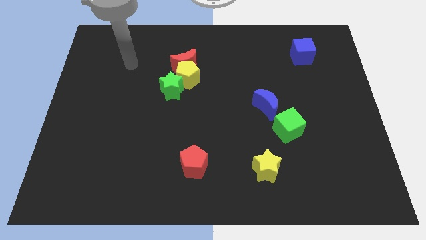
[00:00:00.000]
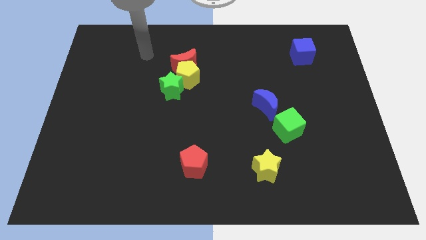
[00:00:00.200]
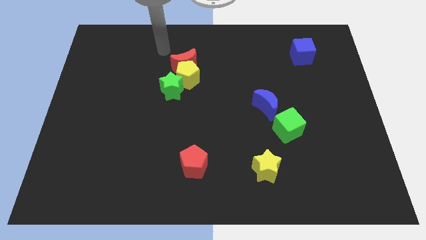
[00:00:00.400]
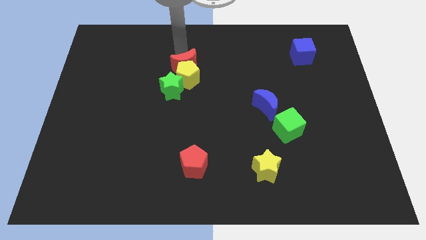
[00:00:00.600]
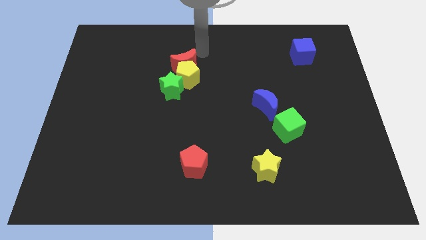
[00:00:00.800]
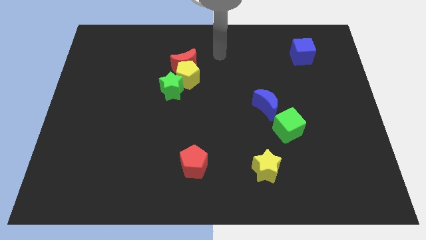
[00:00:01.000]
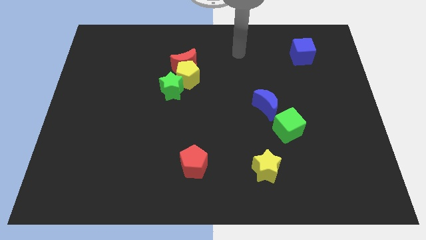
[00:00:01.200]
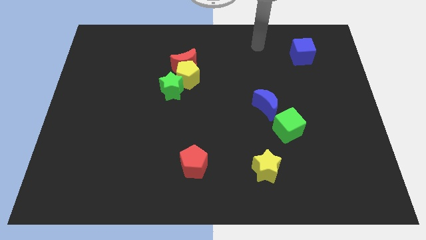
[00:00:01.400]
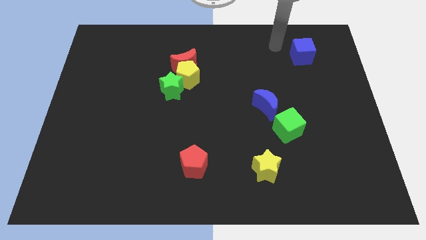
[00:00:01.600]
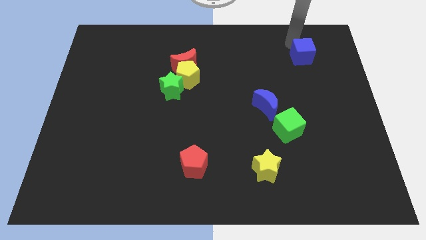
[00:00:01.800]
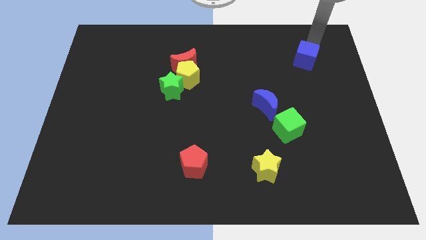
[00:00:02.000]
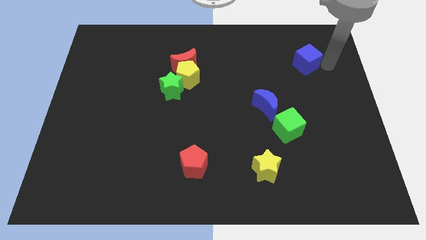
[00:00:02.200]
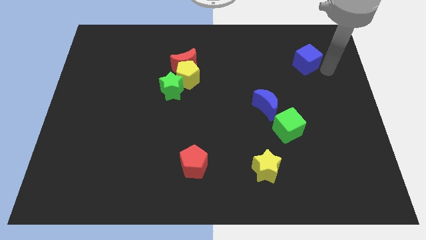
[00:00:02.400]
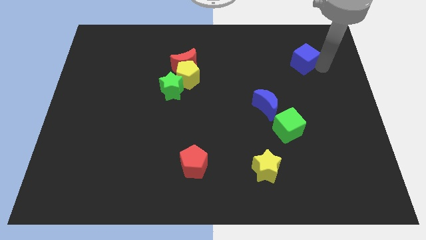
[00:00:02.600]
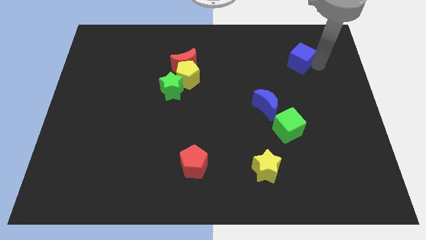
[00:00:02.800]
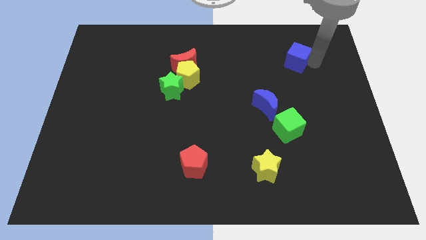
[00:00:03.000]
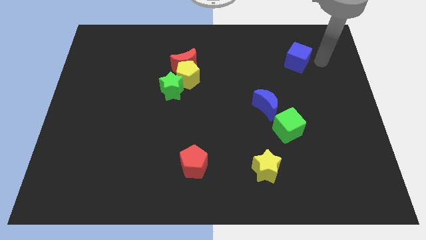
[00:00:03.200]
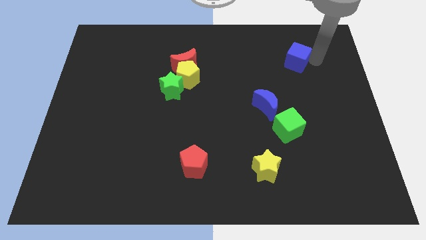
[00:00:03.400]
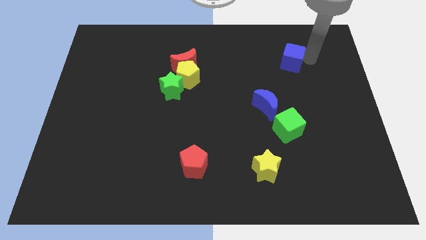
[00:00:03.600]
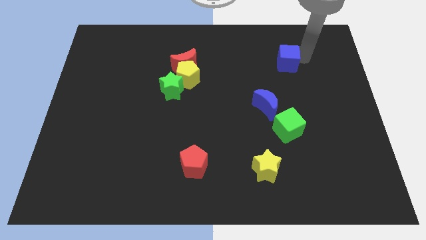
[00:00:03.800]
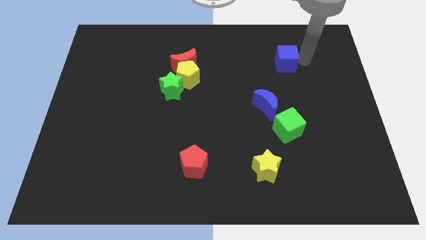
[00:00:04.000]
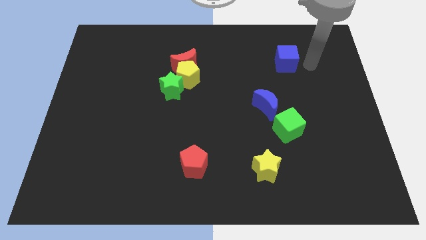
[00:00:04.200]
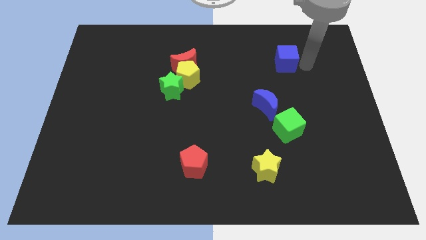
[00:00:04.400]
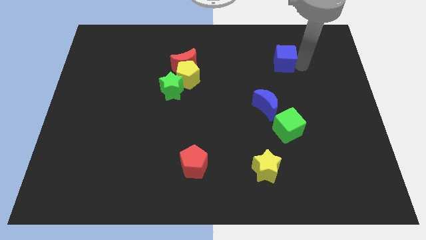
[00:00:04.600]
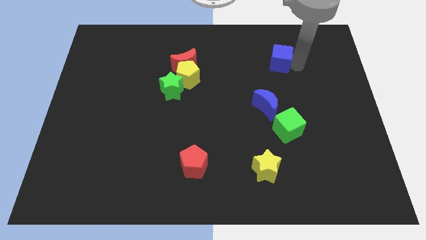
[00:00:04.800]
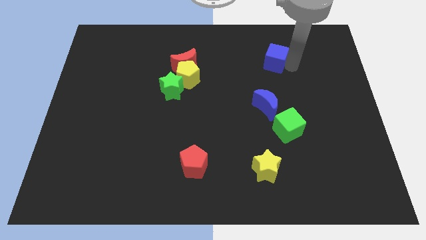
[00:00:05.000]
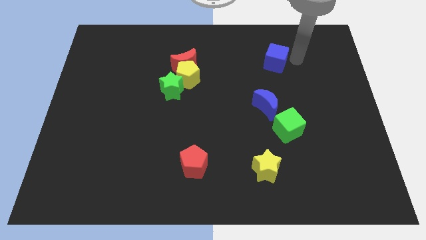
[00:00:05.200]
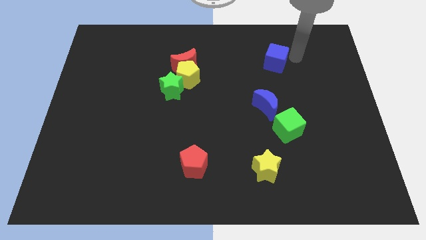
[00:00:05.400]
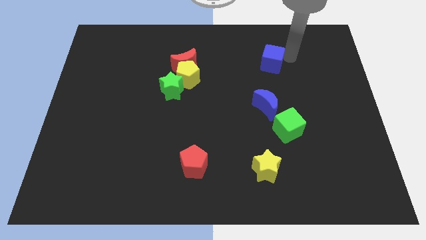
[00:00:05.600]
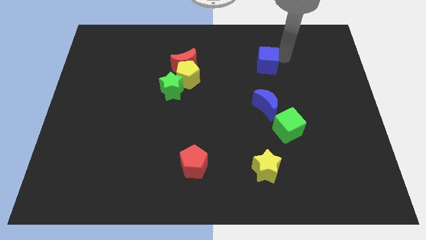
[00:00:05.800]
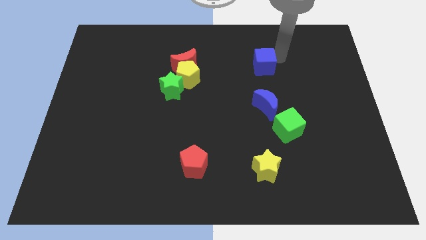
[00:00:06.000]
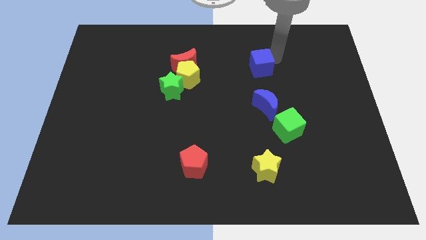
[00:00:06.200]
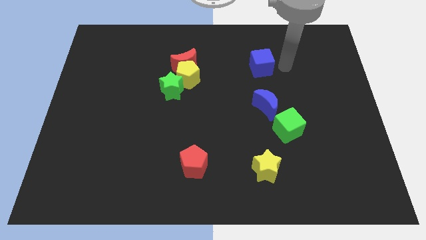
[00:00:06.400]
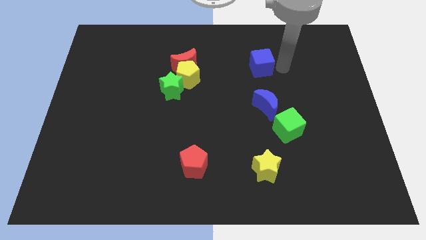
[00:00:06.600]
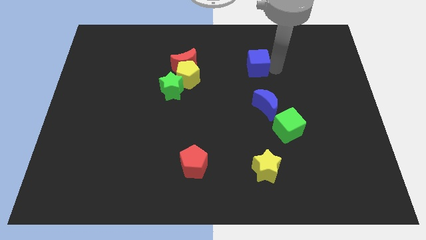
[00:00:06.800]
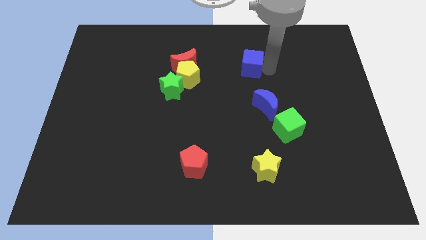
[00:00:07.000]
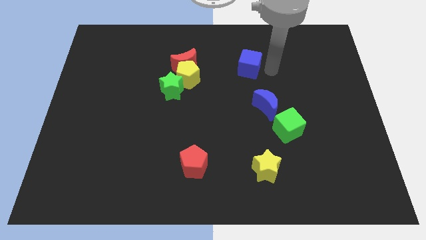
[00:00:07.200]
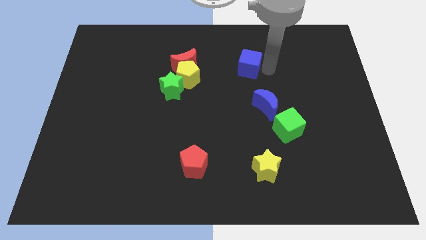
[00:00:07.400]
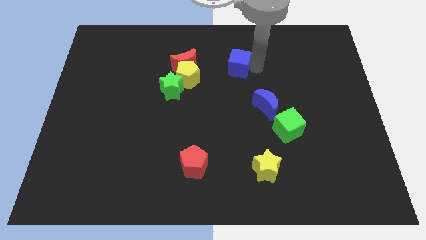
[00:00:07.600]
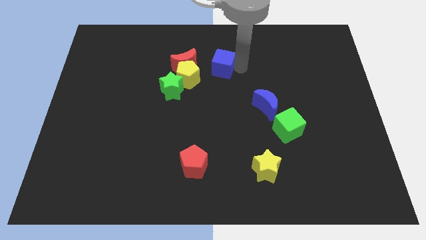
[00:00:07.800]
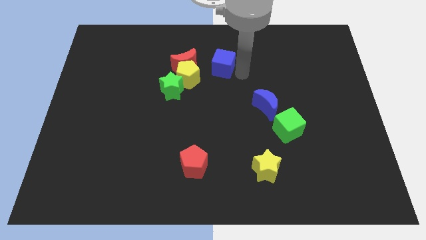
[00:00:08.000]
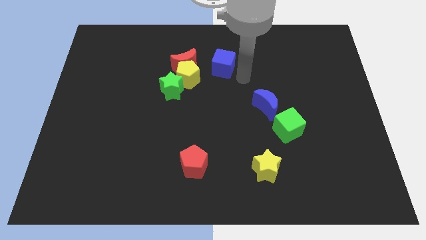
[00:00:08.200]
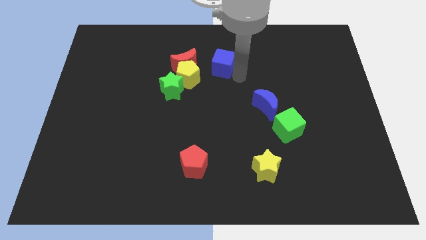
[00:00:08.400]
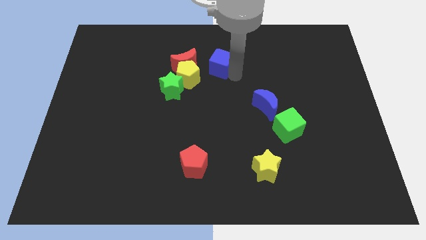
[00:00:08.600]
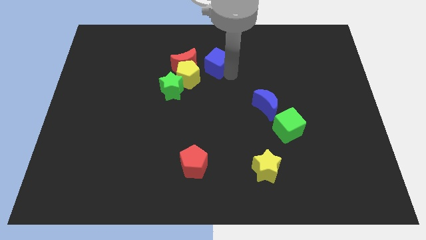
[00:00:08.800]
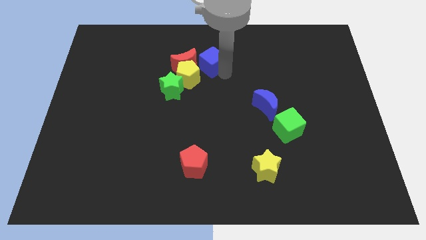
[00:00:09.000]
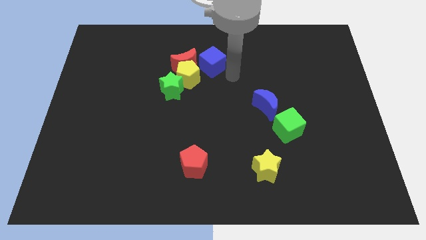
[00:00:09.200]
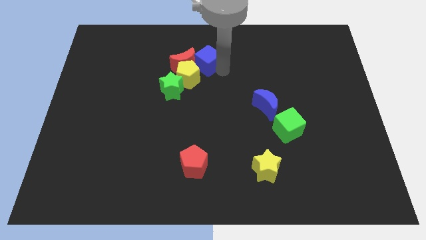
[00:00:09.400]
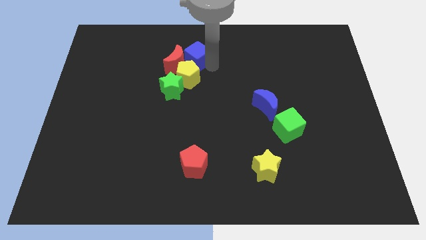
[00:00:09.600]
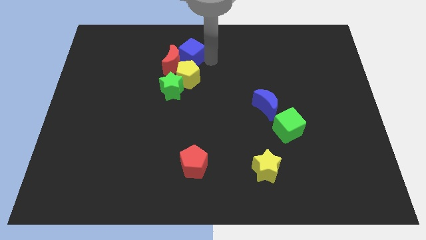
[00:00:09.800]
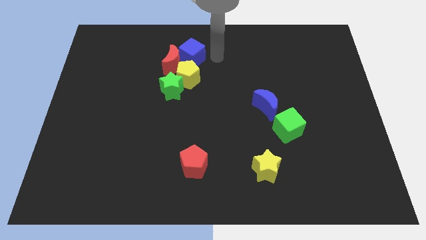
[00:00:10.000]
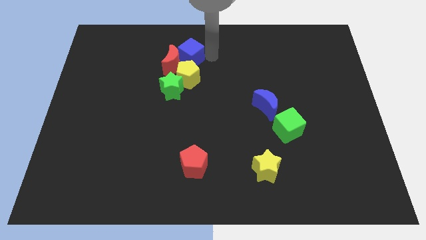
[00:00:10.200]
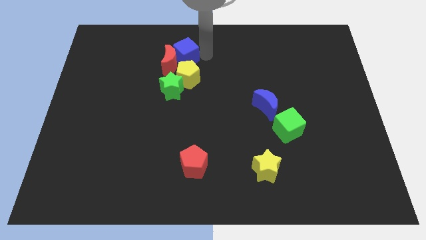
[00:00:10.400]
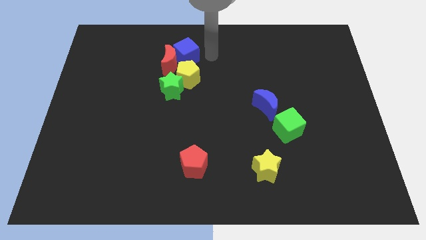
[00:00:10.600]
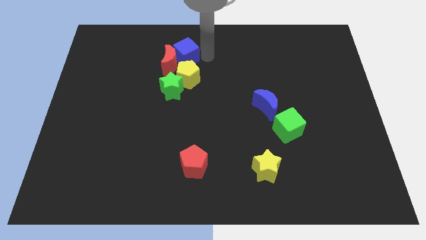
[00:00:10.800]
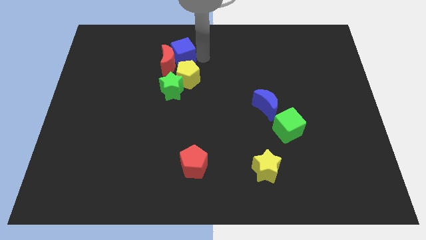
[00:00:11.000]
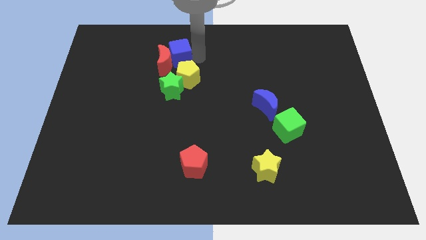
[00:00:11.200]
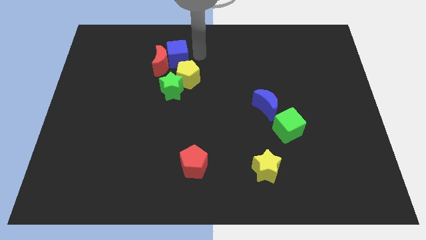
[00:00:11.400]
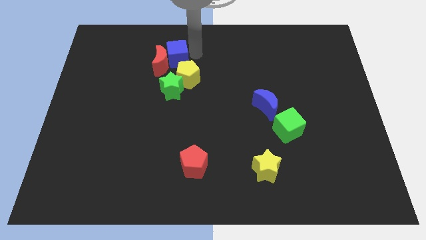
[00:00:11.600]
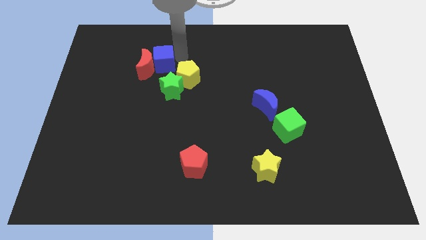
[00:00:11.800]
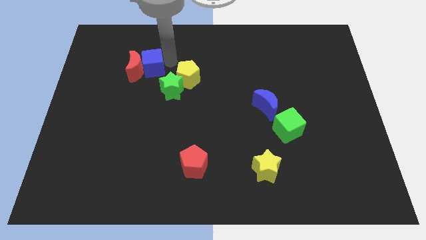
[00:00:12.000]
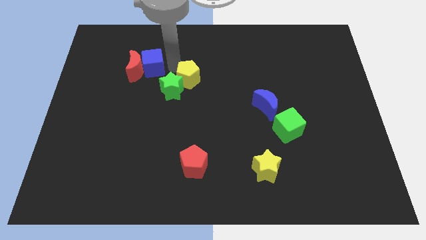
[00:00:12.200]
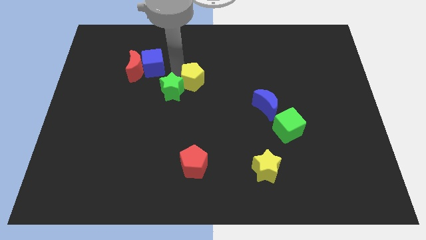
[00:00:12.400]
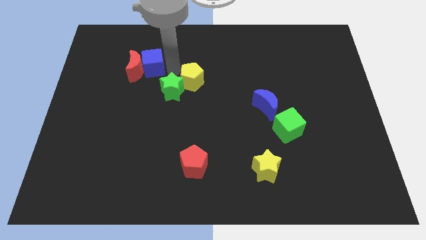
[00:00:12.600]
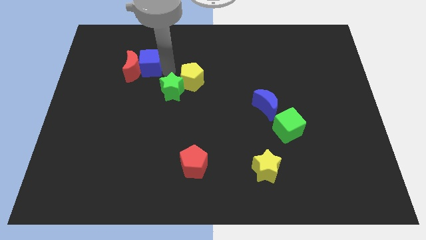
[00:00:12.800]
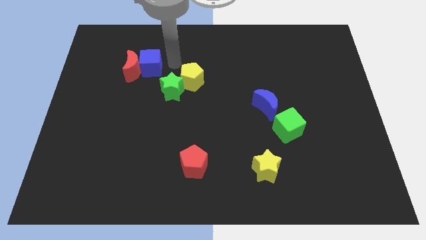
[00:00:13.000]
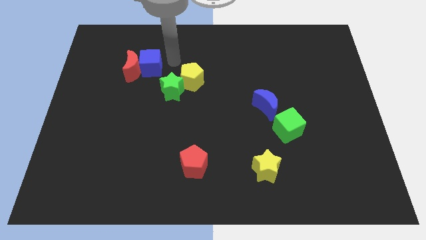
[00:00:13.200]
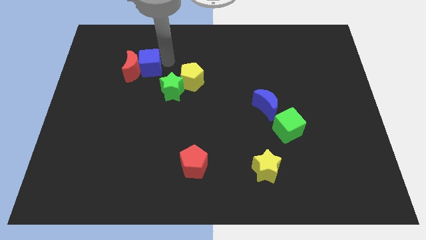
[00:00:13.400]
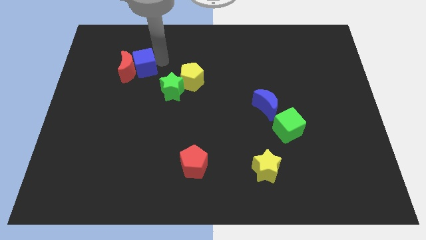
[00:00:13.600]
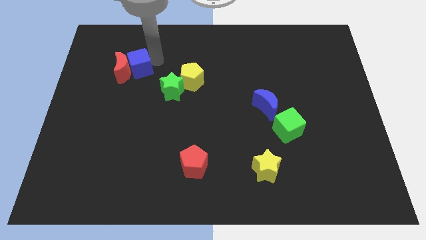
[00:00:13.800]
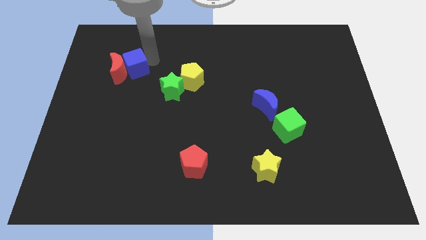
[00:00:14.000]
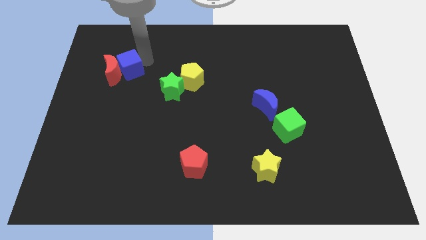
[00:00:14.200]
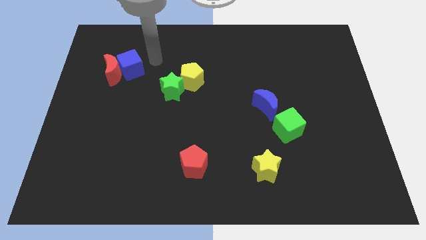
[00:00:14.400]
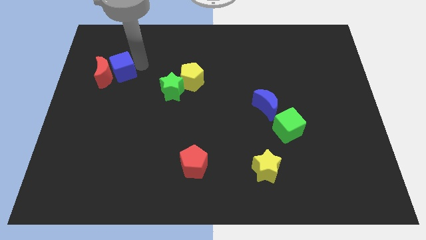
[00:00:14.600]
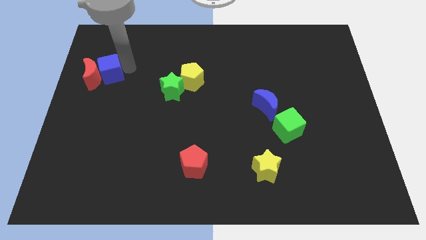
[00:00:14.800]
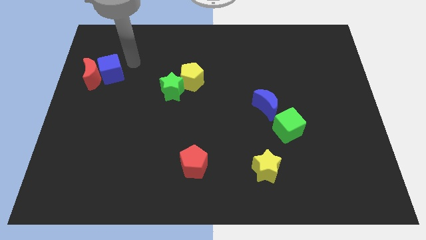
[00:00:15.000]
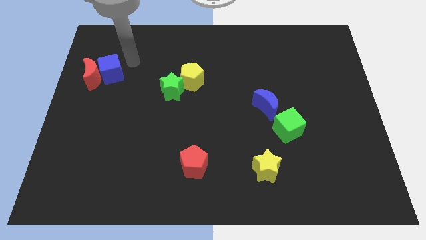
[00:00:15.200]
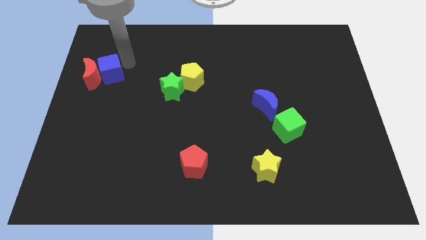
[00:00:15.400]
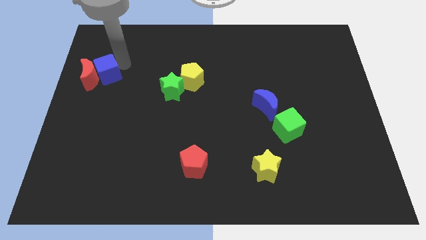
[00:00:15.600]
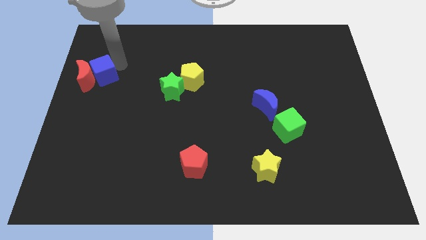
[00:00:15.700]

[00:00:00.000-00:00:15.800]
slide the blue cube to the center left
